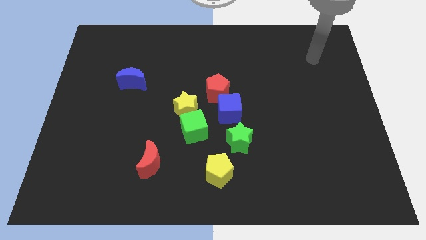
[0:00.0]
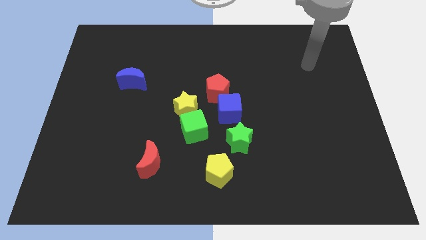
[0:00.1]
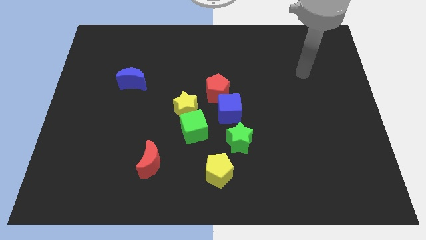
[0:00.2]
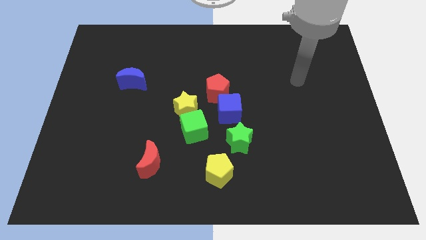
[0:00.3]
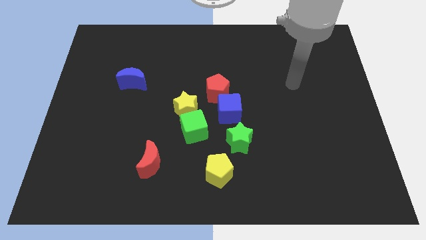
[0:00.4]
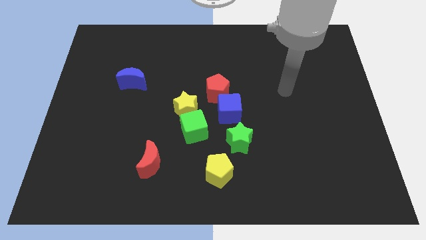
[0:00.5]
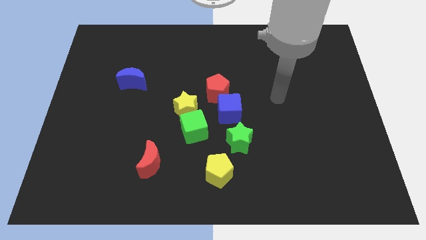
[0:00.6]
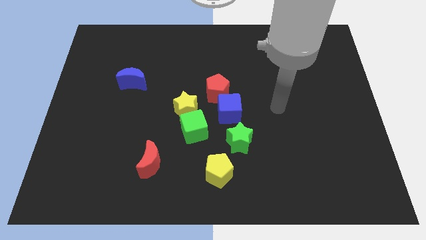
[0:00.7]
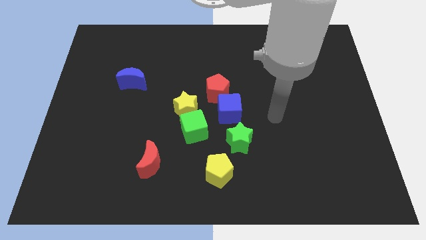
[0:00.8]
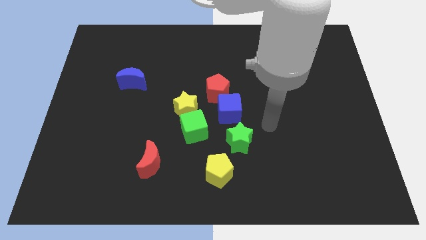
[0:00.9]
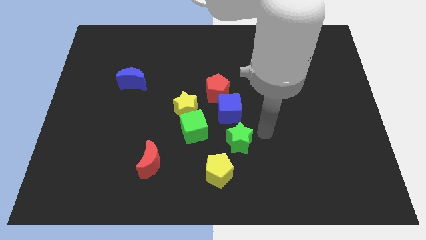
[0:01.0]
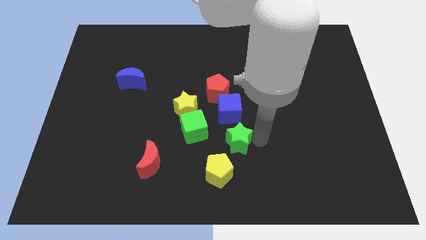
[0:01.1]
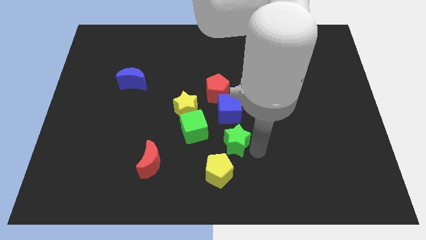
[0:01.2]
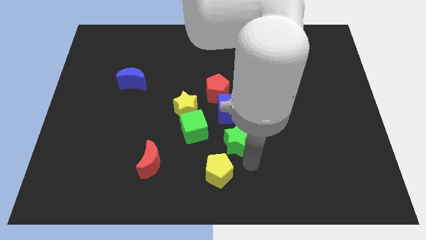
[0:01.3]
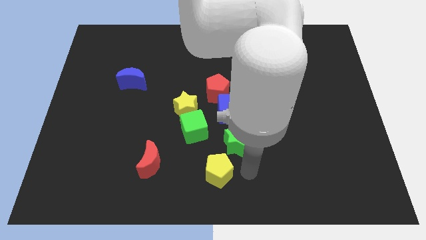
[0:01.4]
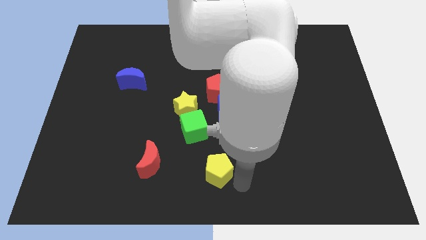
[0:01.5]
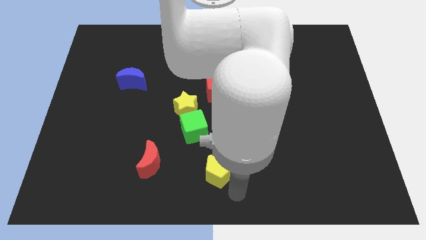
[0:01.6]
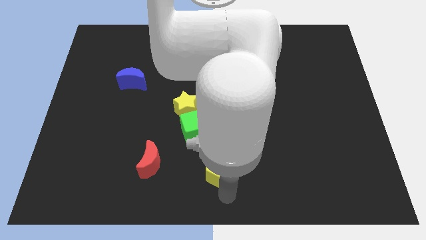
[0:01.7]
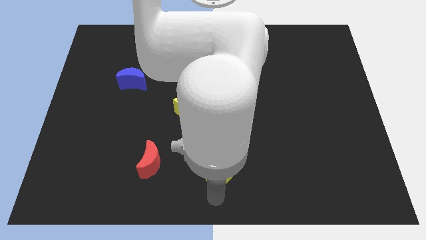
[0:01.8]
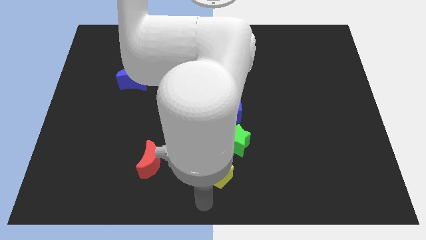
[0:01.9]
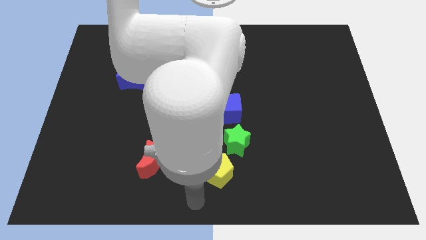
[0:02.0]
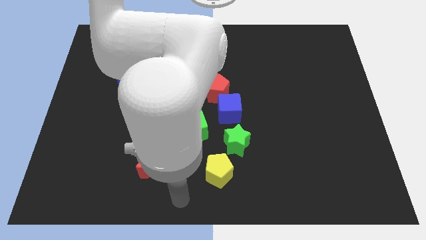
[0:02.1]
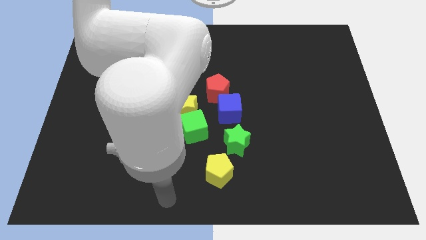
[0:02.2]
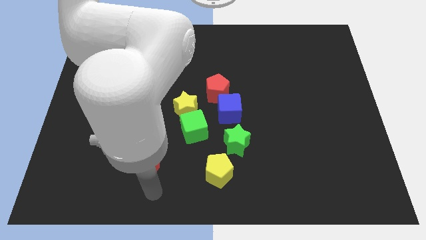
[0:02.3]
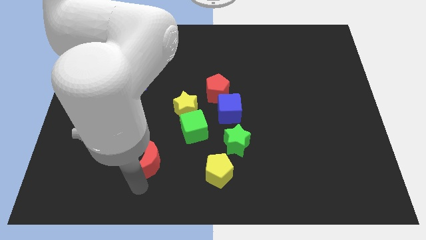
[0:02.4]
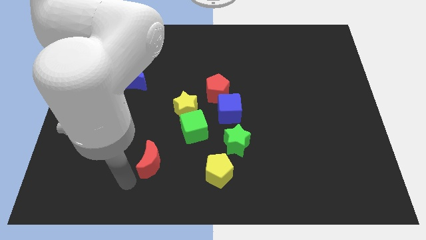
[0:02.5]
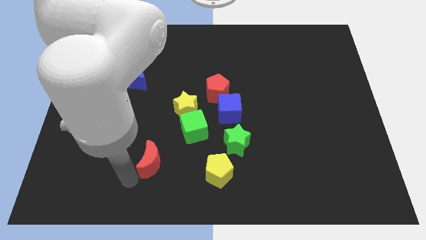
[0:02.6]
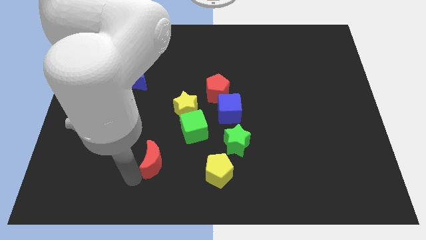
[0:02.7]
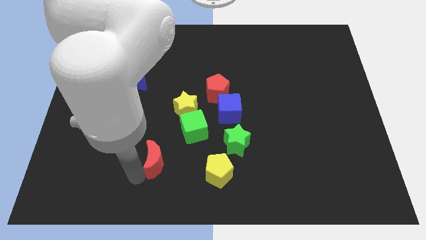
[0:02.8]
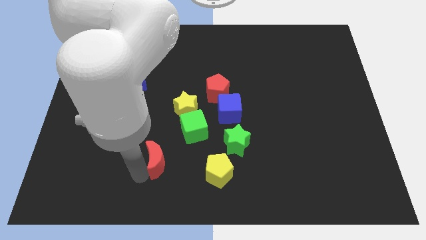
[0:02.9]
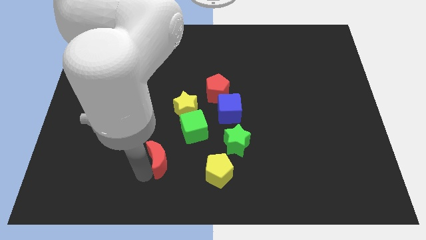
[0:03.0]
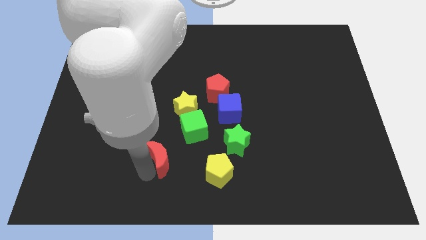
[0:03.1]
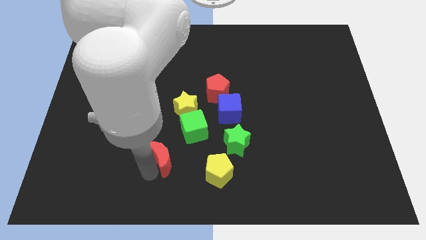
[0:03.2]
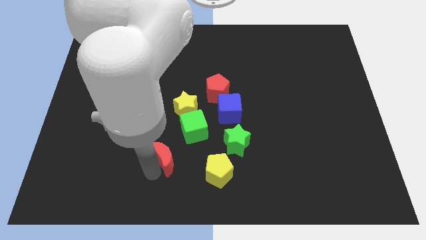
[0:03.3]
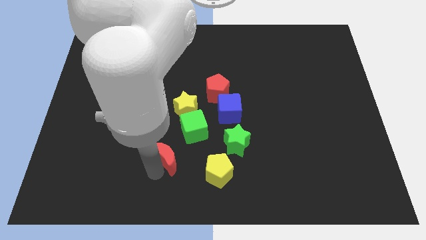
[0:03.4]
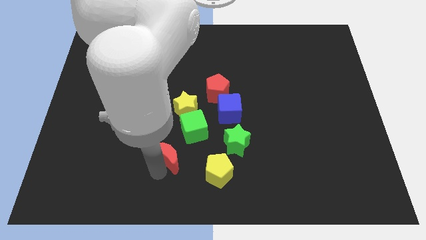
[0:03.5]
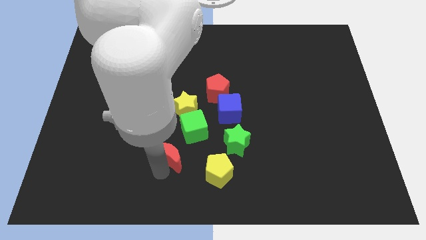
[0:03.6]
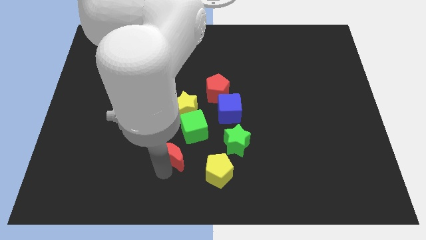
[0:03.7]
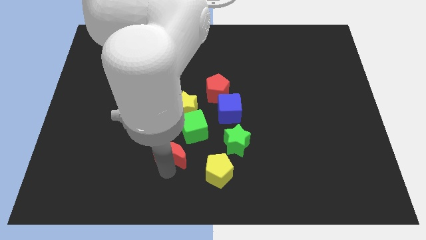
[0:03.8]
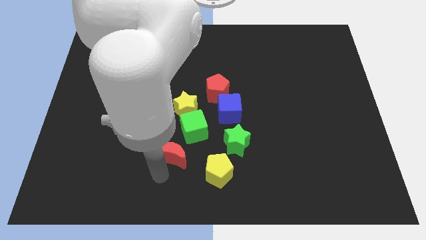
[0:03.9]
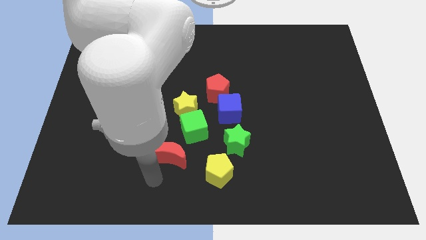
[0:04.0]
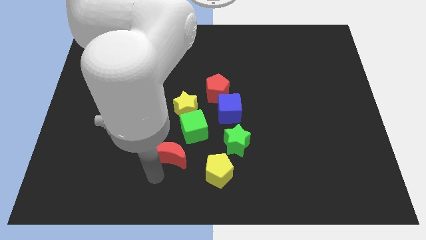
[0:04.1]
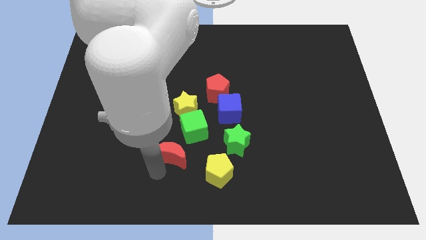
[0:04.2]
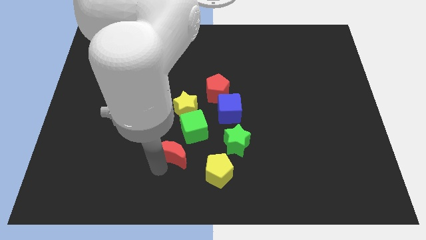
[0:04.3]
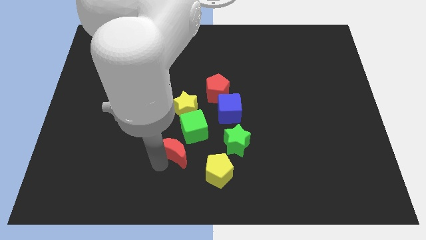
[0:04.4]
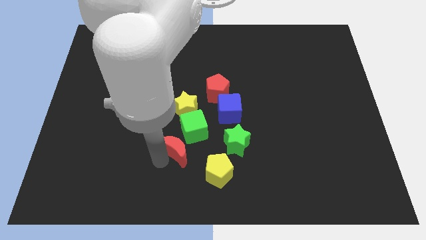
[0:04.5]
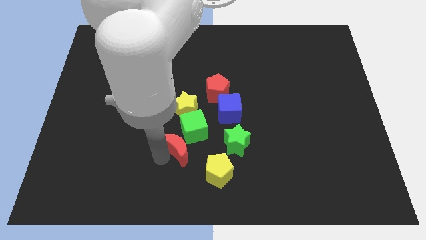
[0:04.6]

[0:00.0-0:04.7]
put the red moon next to the green cube

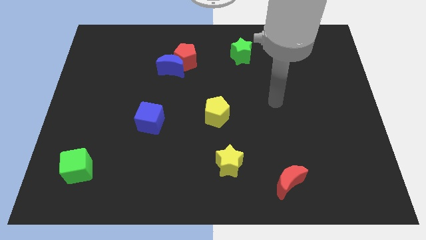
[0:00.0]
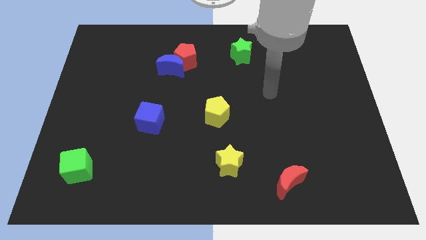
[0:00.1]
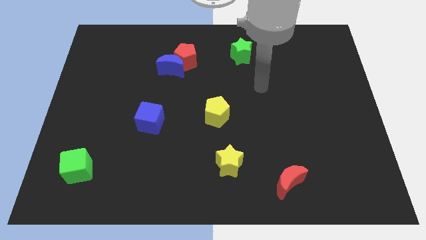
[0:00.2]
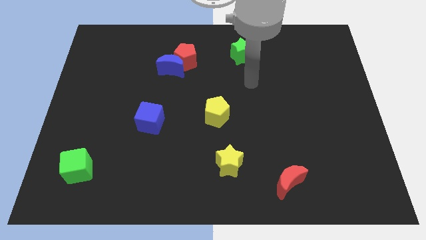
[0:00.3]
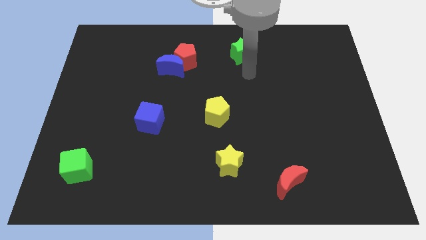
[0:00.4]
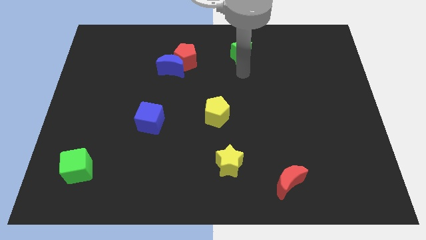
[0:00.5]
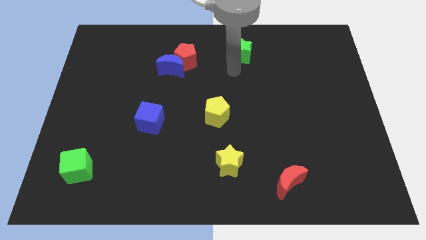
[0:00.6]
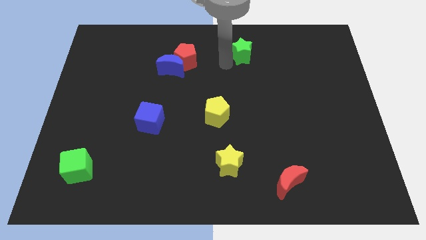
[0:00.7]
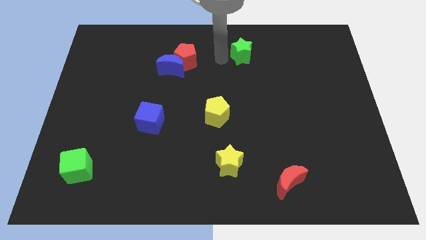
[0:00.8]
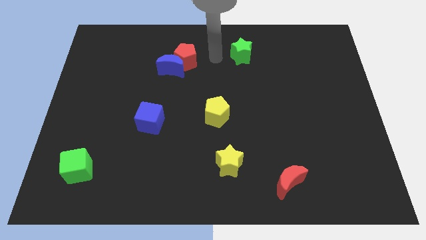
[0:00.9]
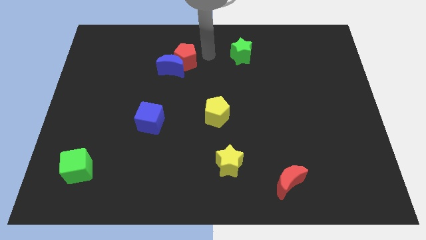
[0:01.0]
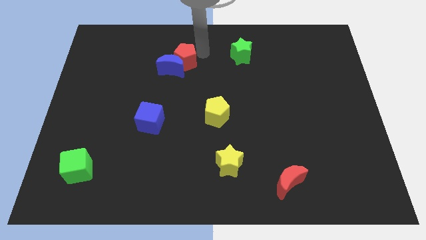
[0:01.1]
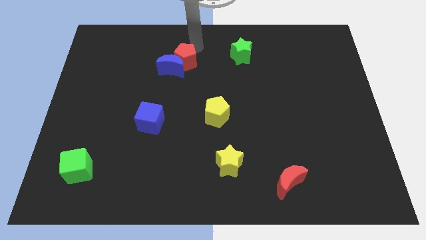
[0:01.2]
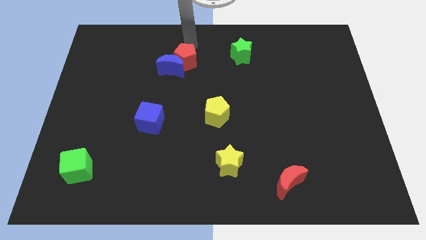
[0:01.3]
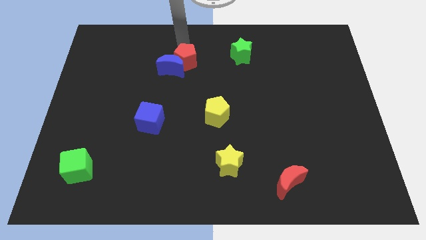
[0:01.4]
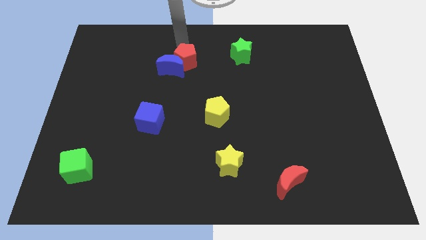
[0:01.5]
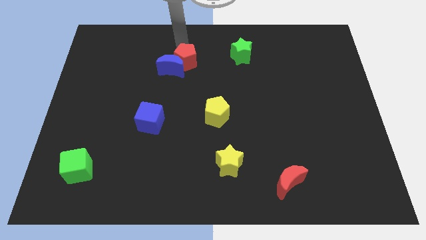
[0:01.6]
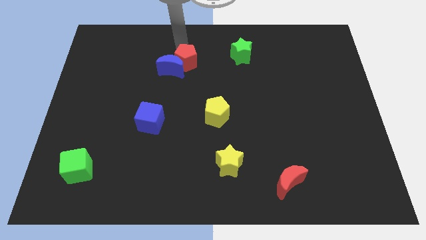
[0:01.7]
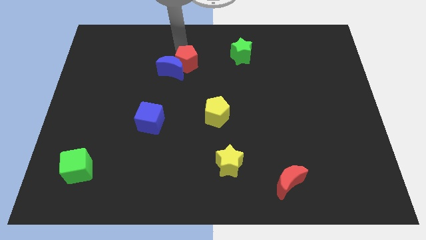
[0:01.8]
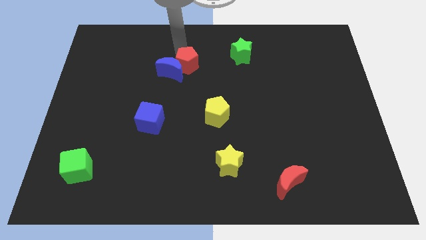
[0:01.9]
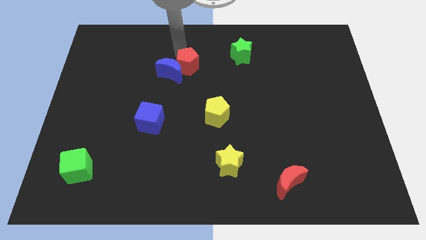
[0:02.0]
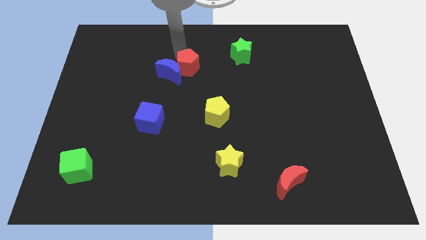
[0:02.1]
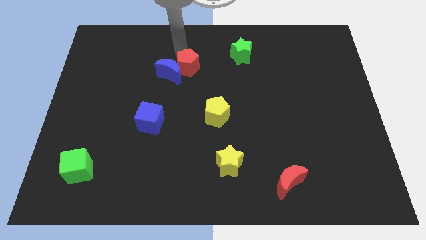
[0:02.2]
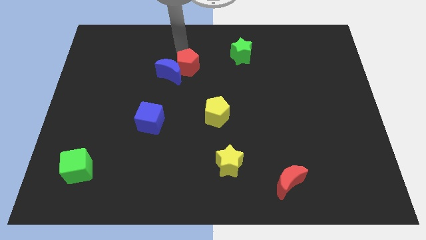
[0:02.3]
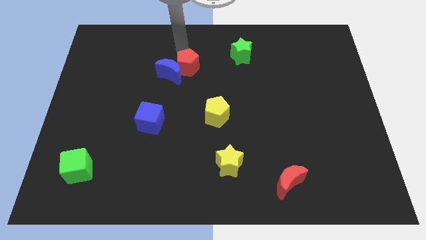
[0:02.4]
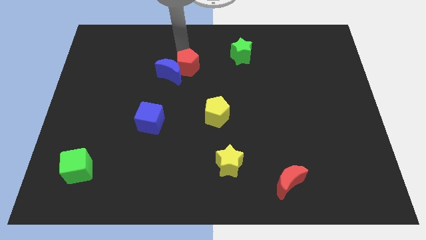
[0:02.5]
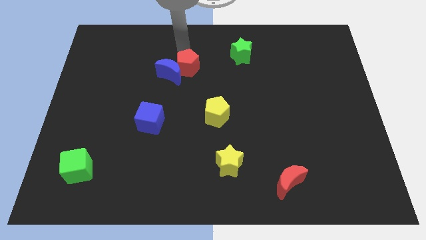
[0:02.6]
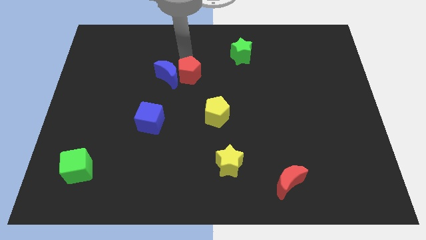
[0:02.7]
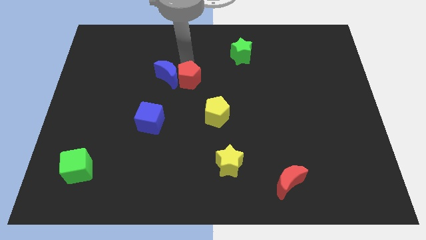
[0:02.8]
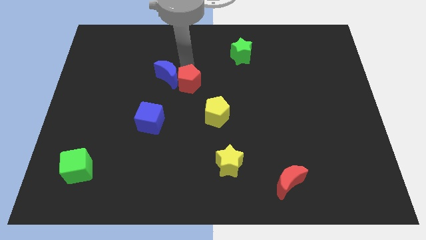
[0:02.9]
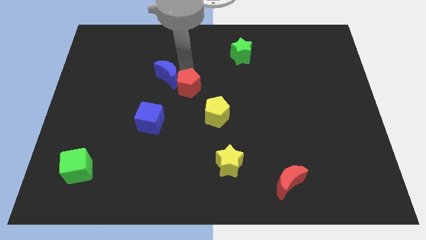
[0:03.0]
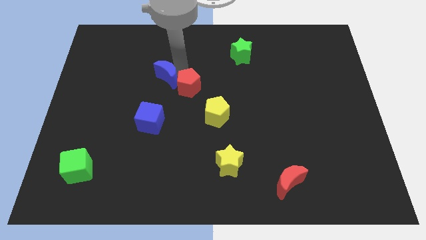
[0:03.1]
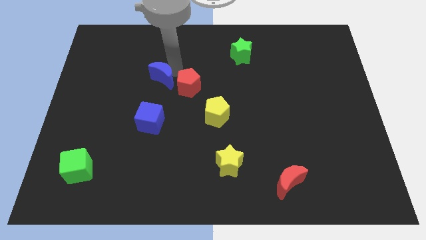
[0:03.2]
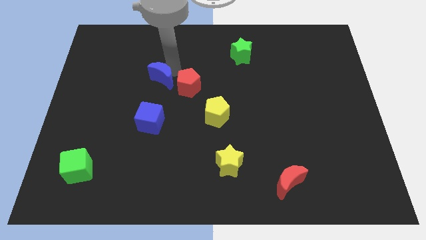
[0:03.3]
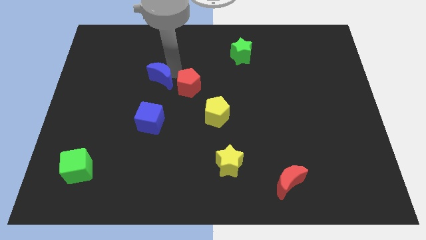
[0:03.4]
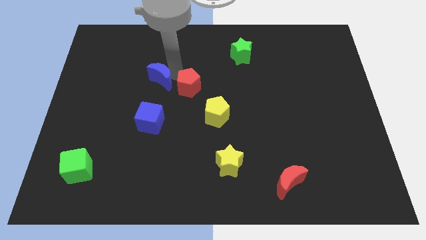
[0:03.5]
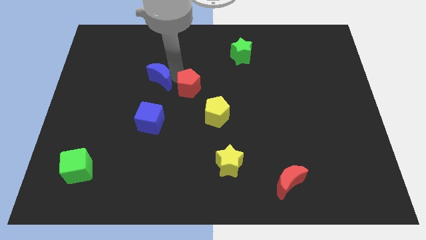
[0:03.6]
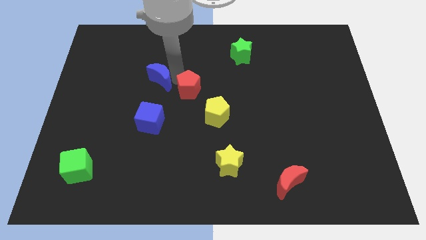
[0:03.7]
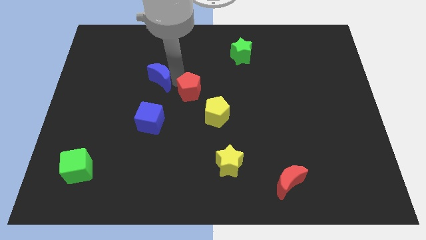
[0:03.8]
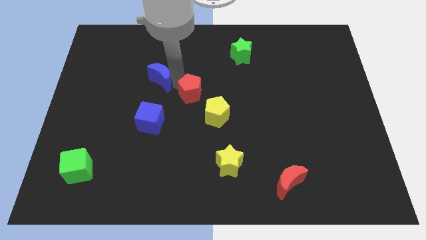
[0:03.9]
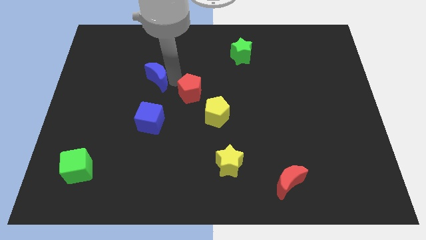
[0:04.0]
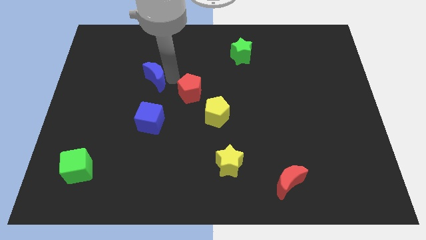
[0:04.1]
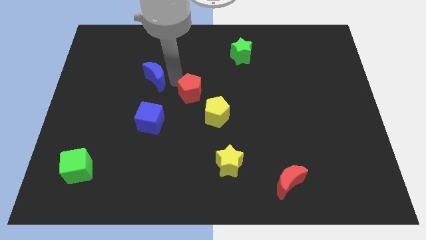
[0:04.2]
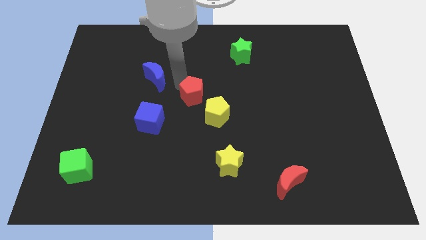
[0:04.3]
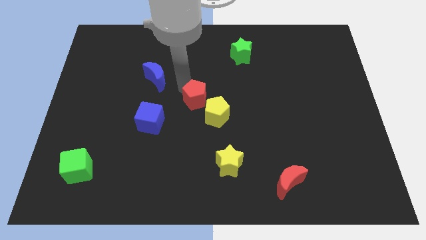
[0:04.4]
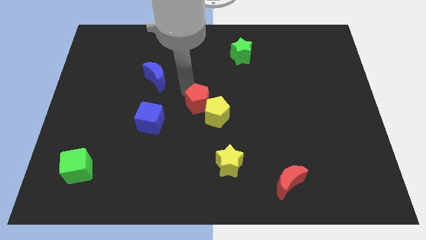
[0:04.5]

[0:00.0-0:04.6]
push the red pentagon next to the yellow pentagon
